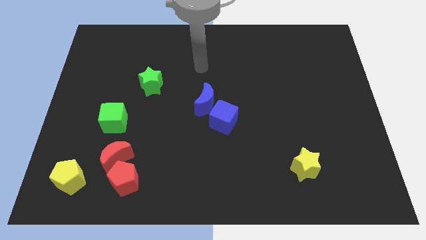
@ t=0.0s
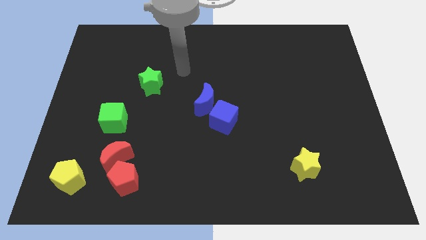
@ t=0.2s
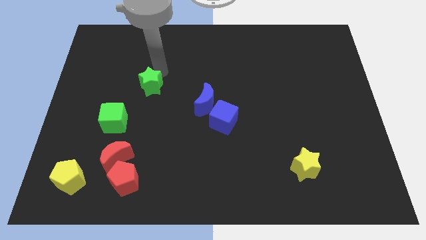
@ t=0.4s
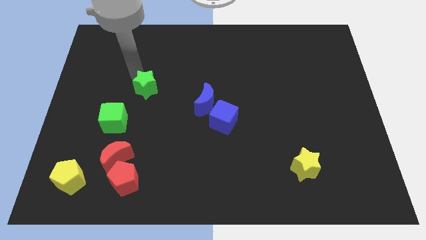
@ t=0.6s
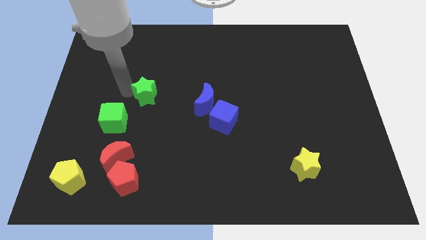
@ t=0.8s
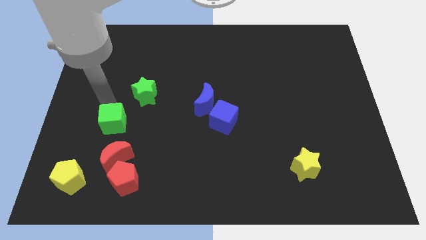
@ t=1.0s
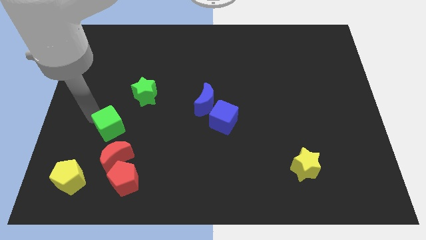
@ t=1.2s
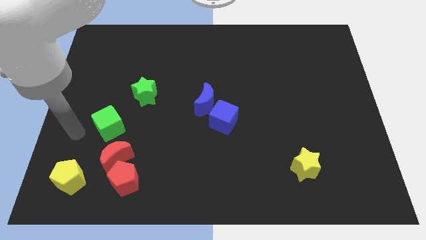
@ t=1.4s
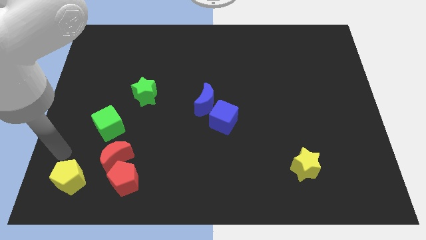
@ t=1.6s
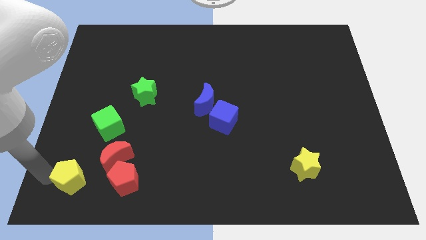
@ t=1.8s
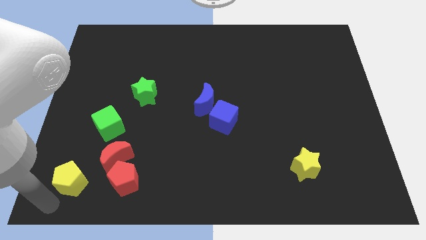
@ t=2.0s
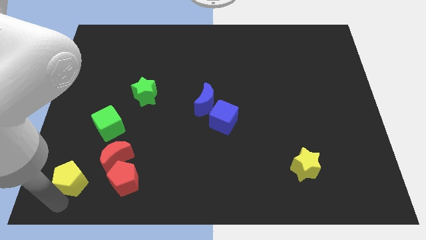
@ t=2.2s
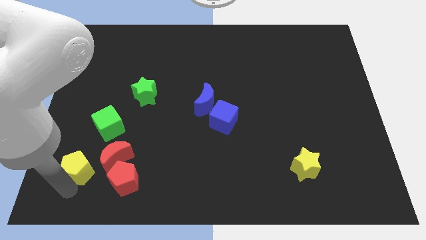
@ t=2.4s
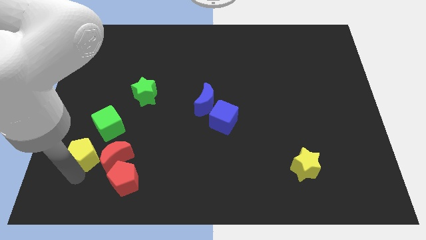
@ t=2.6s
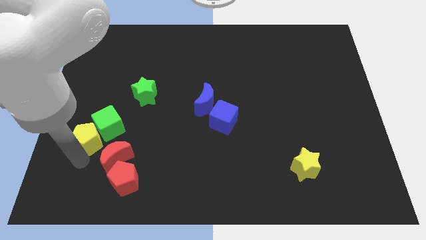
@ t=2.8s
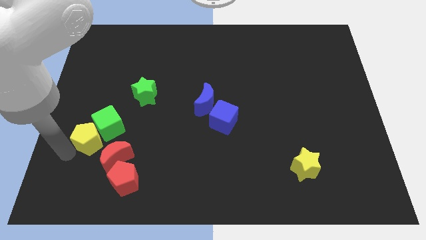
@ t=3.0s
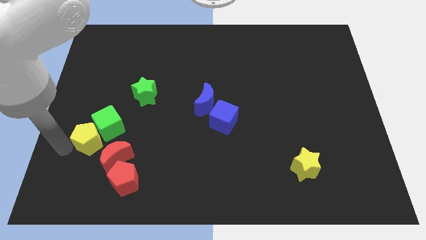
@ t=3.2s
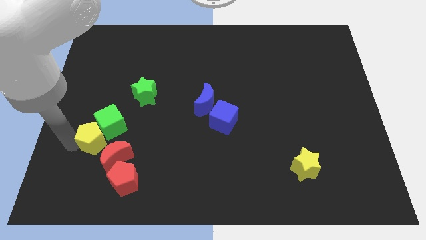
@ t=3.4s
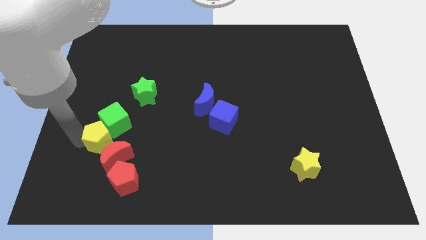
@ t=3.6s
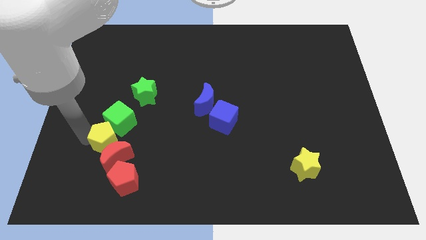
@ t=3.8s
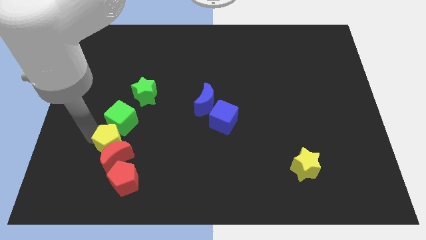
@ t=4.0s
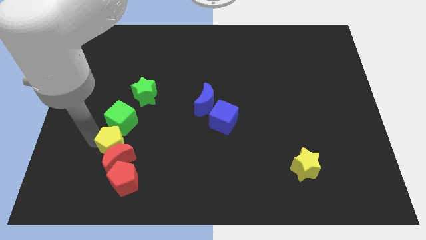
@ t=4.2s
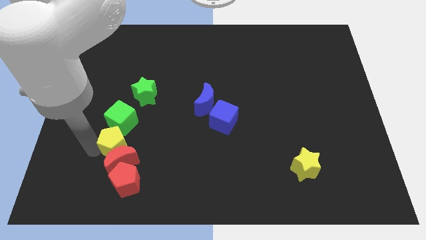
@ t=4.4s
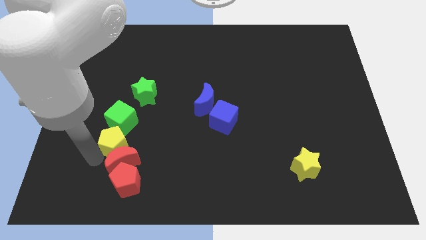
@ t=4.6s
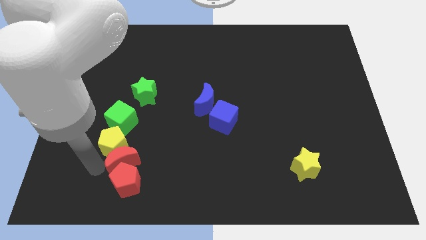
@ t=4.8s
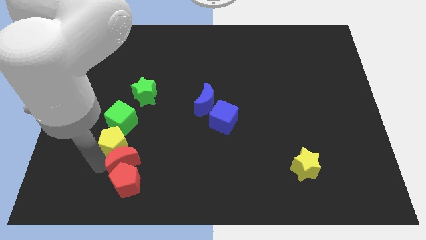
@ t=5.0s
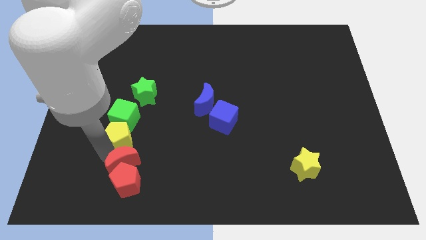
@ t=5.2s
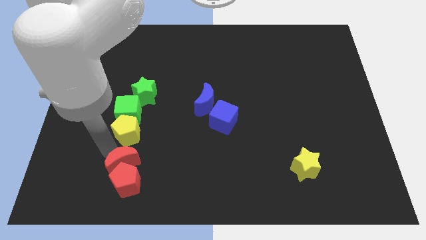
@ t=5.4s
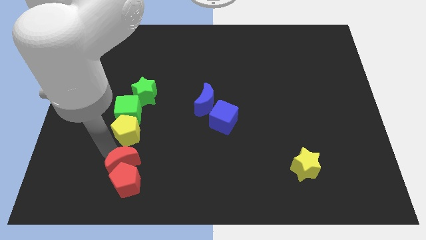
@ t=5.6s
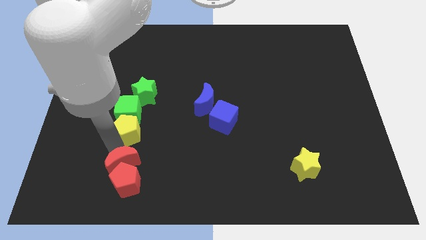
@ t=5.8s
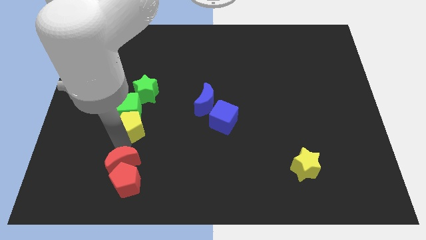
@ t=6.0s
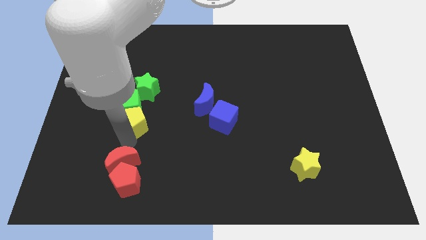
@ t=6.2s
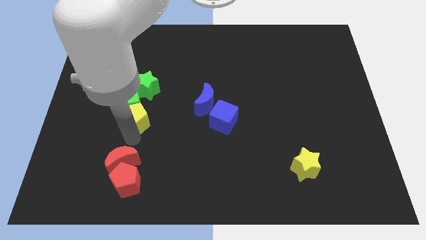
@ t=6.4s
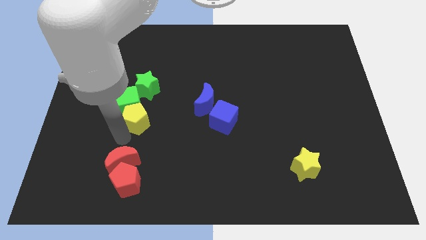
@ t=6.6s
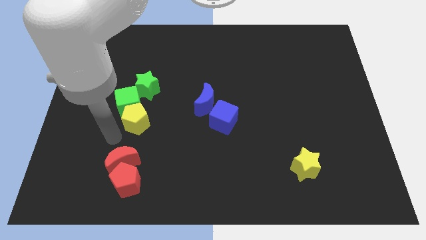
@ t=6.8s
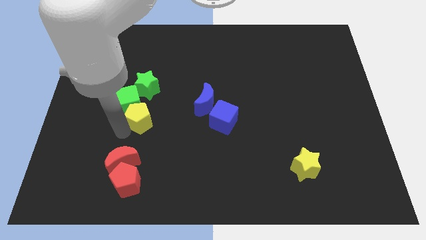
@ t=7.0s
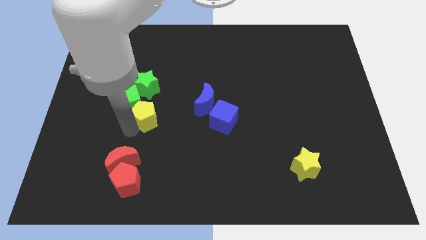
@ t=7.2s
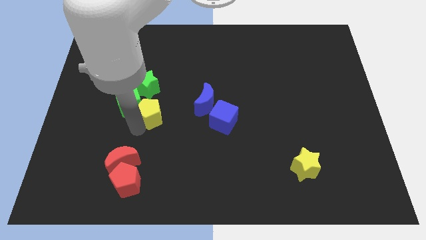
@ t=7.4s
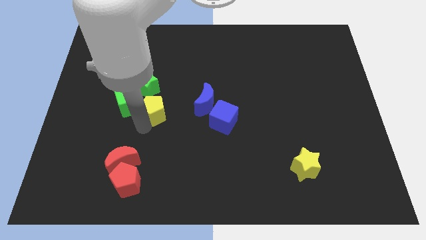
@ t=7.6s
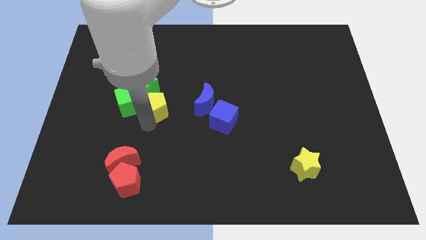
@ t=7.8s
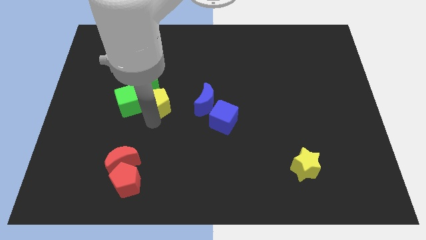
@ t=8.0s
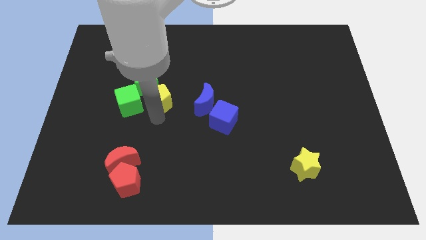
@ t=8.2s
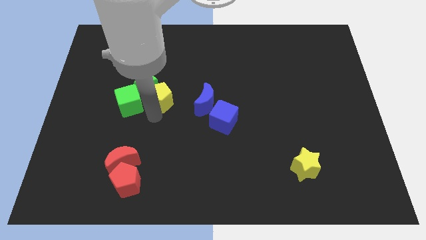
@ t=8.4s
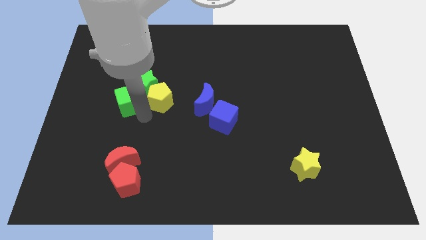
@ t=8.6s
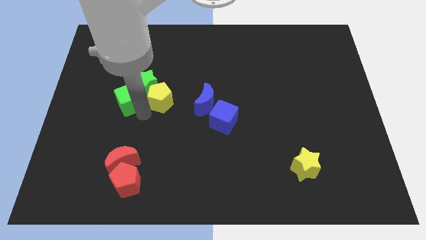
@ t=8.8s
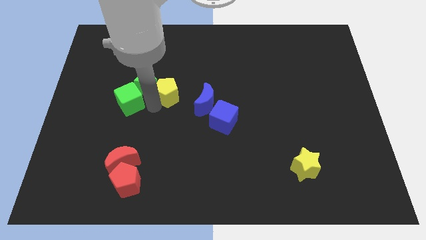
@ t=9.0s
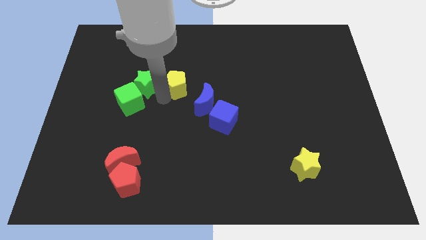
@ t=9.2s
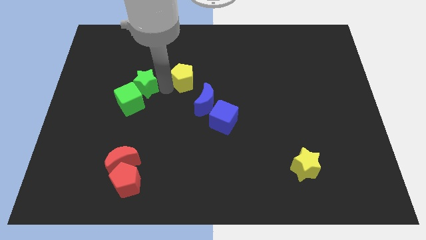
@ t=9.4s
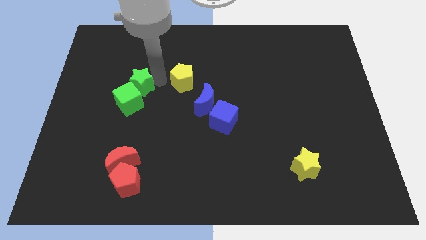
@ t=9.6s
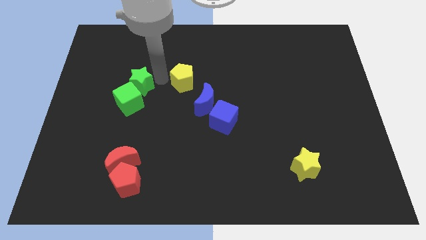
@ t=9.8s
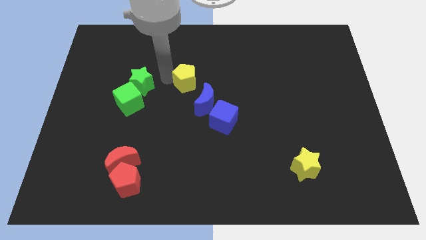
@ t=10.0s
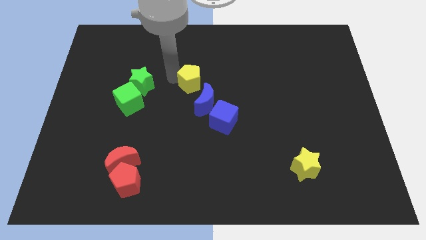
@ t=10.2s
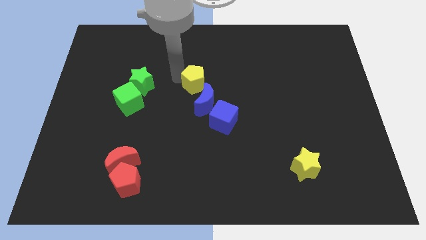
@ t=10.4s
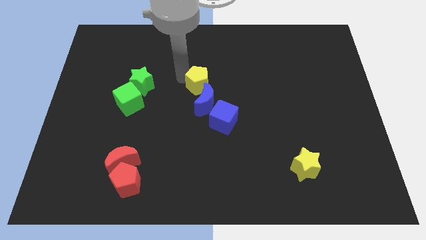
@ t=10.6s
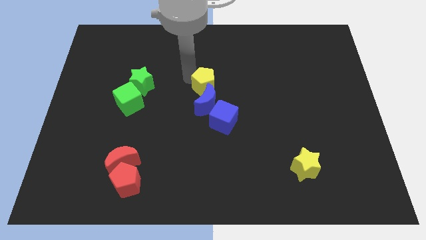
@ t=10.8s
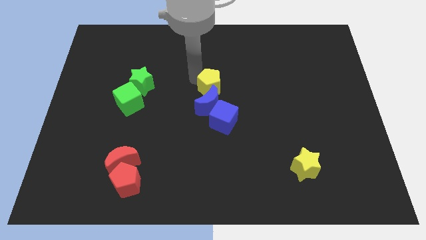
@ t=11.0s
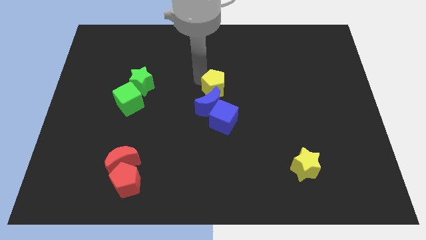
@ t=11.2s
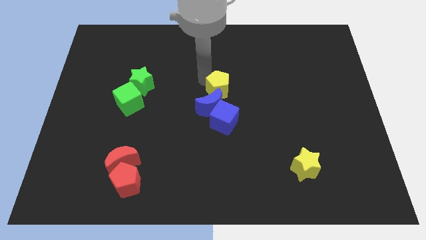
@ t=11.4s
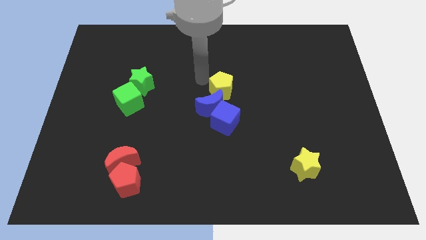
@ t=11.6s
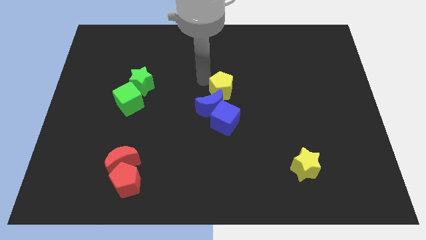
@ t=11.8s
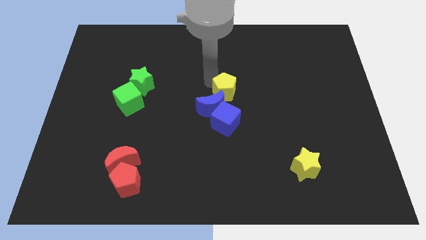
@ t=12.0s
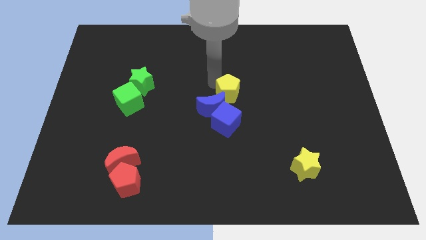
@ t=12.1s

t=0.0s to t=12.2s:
move the yellow pentagon to the right side of the blue moon

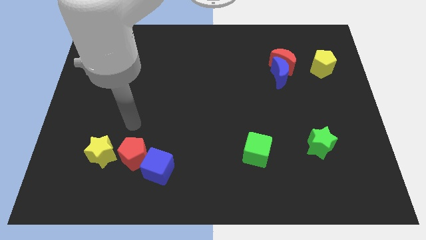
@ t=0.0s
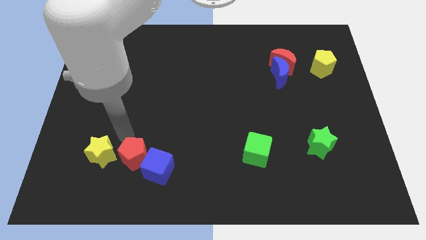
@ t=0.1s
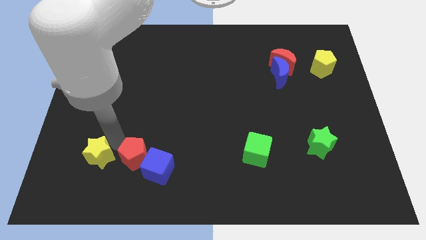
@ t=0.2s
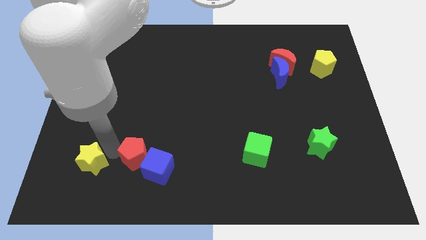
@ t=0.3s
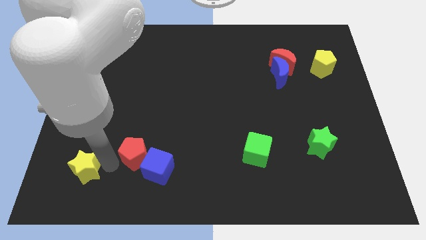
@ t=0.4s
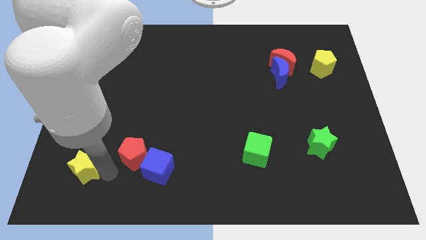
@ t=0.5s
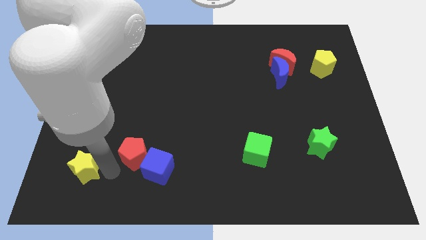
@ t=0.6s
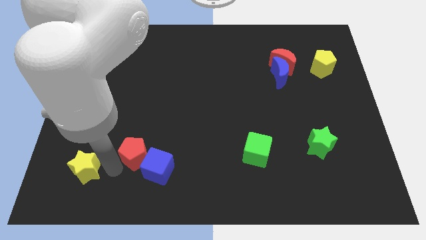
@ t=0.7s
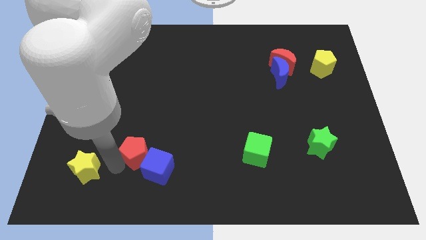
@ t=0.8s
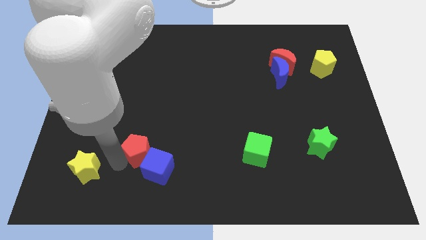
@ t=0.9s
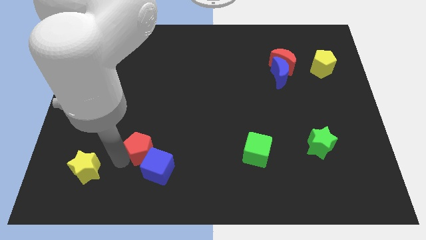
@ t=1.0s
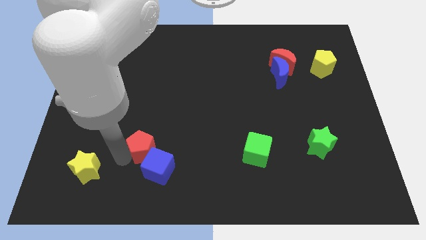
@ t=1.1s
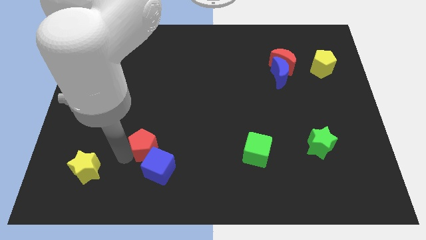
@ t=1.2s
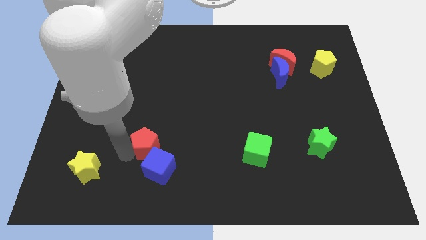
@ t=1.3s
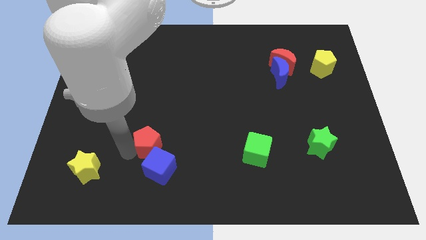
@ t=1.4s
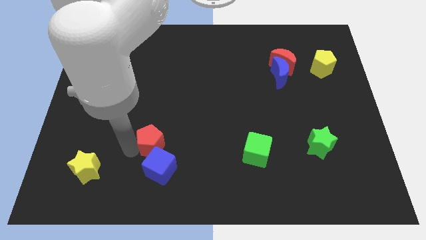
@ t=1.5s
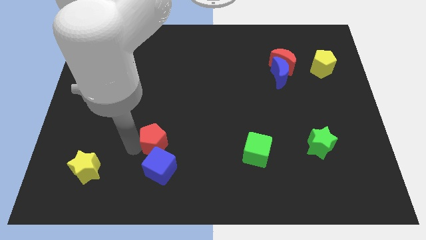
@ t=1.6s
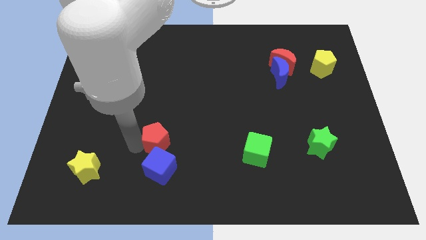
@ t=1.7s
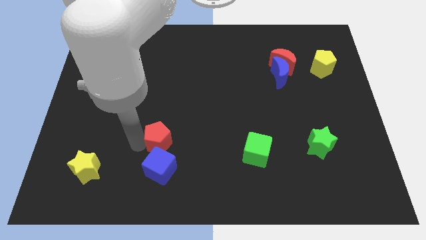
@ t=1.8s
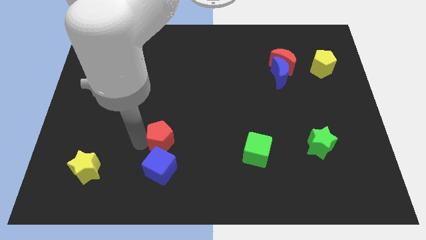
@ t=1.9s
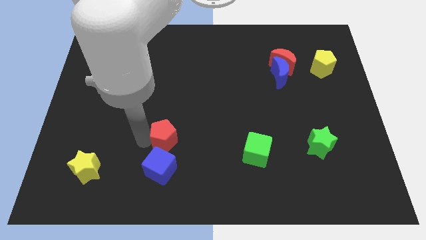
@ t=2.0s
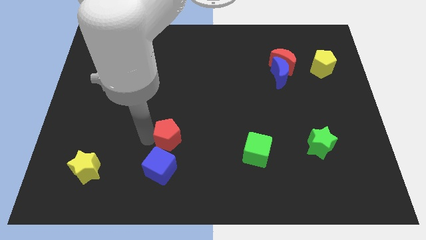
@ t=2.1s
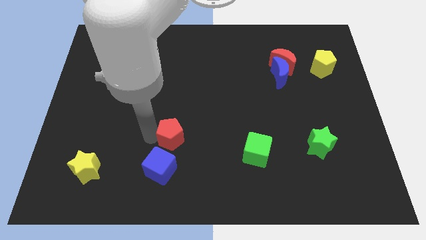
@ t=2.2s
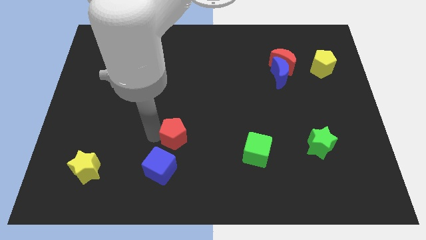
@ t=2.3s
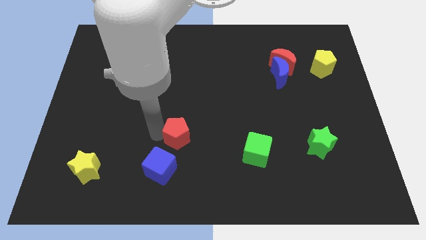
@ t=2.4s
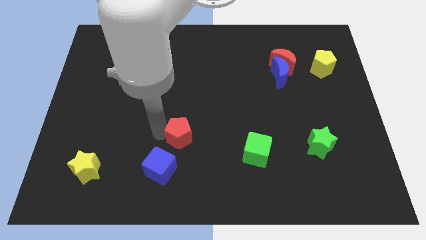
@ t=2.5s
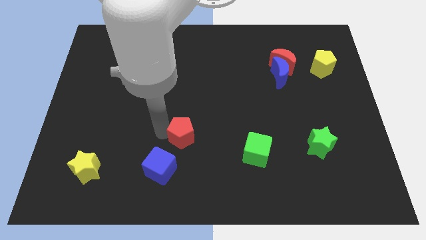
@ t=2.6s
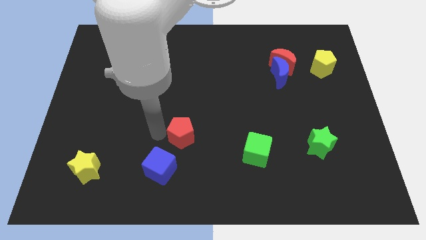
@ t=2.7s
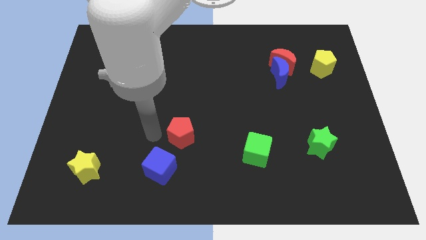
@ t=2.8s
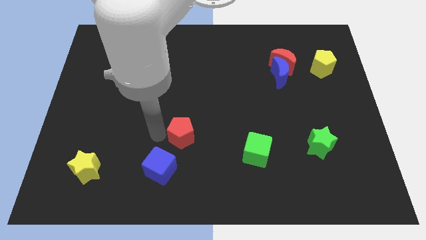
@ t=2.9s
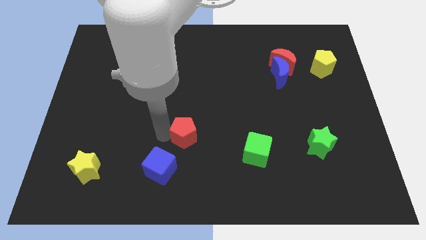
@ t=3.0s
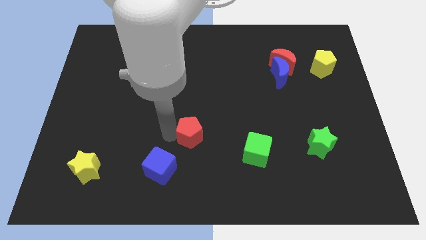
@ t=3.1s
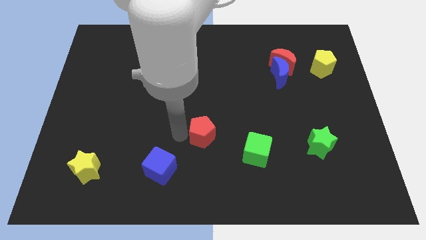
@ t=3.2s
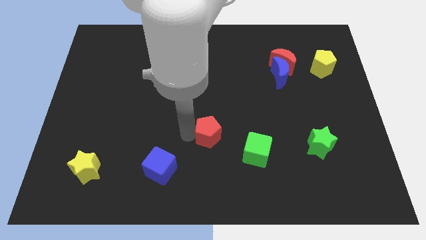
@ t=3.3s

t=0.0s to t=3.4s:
put the red pentagon to the top left of the green cube
